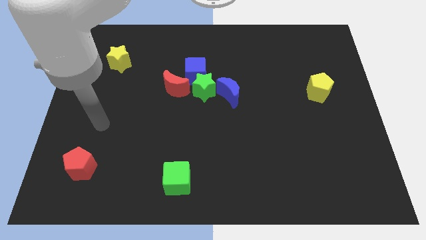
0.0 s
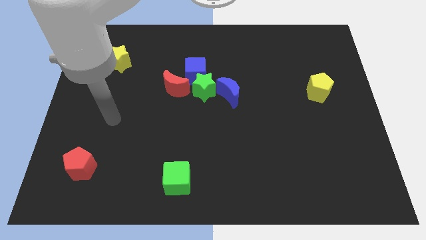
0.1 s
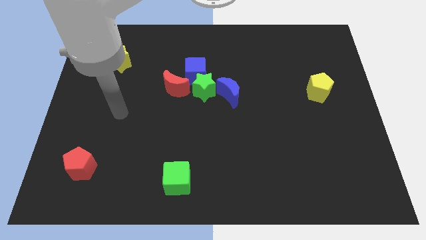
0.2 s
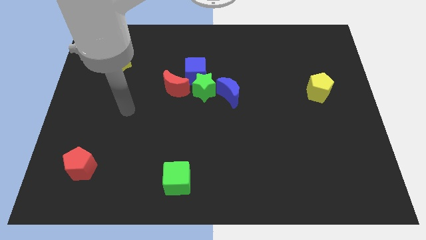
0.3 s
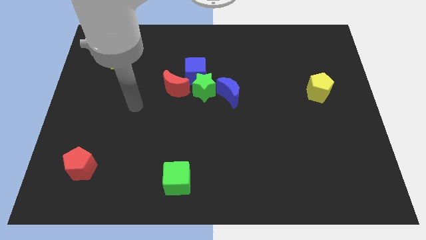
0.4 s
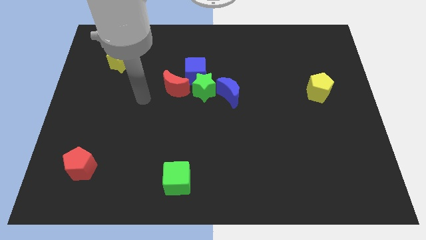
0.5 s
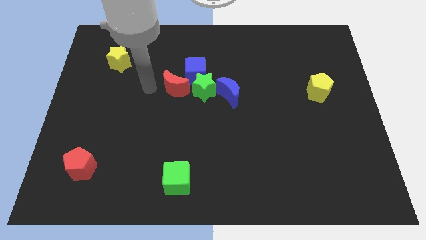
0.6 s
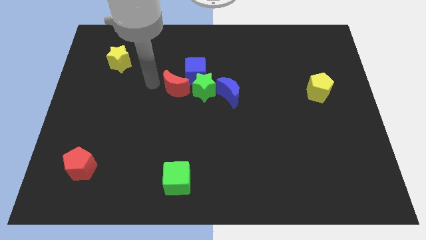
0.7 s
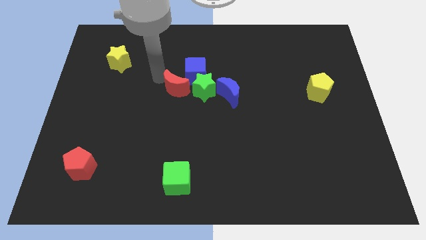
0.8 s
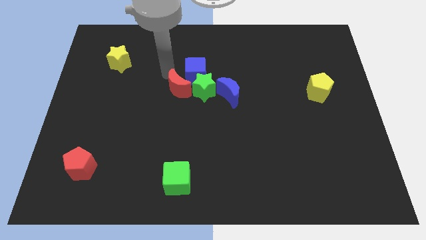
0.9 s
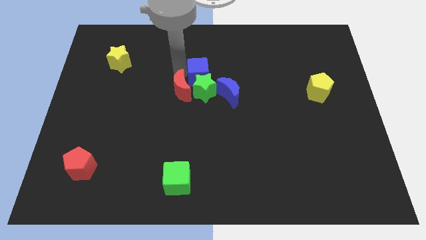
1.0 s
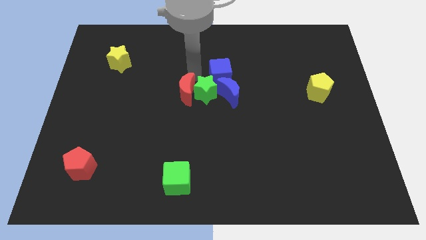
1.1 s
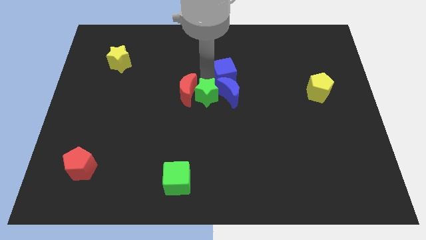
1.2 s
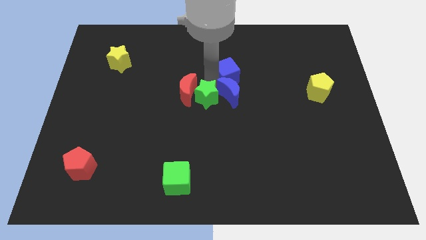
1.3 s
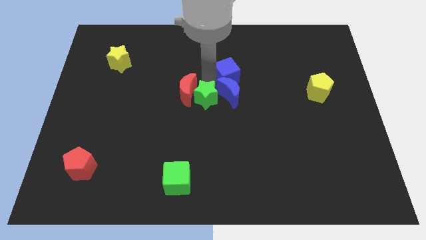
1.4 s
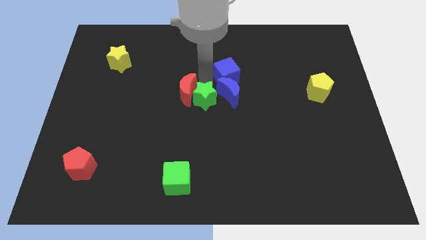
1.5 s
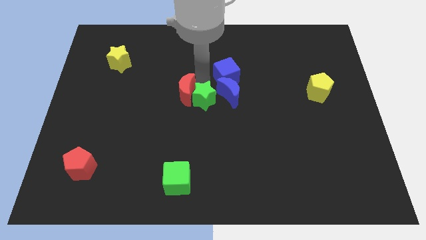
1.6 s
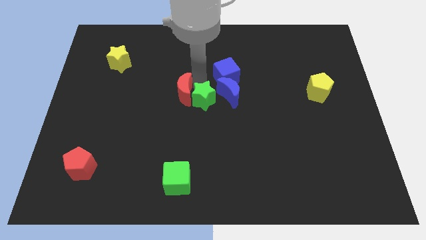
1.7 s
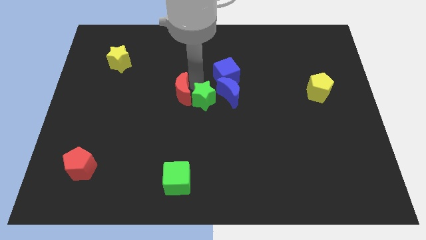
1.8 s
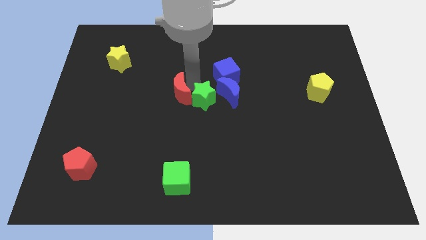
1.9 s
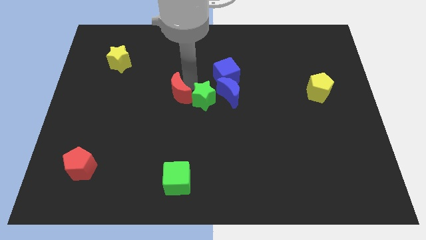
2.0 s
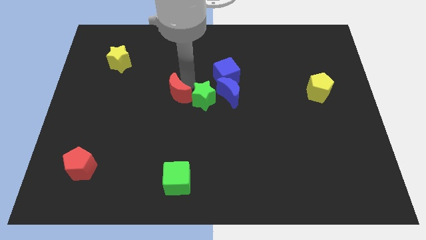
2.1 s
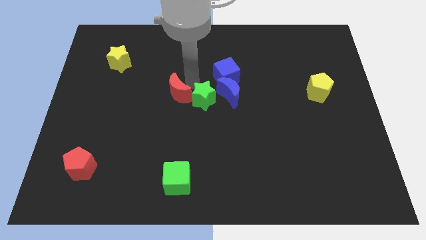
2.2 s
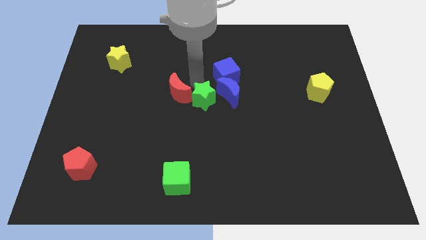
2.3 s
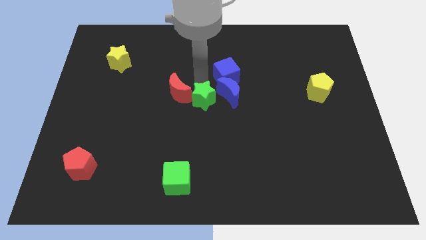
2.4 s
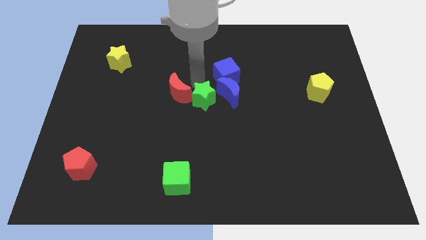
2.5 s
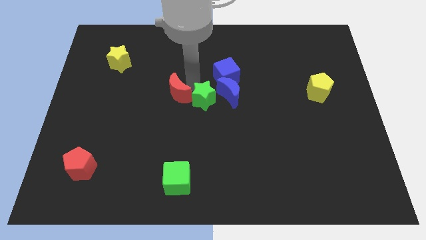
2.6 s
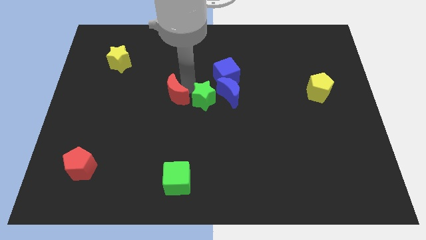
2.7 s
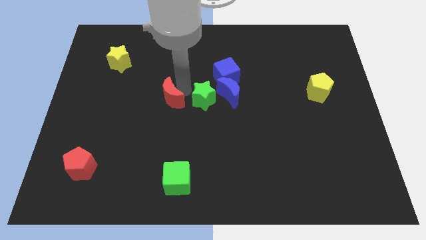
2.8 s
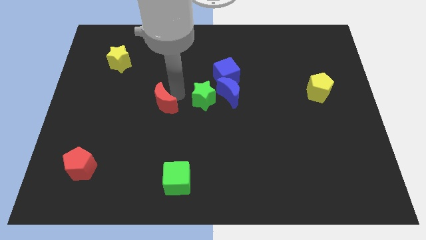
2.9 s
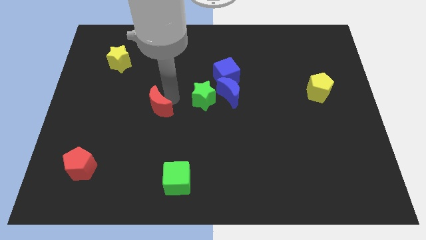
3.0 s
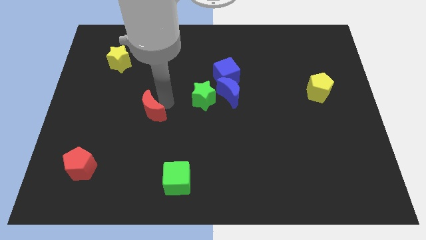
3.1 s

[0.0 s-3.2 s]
push the red moon diagonally downwards and left a bit

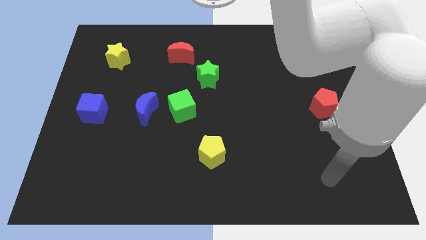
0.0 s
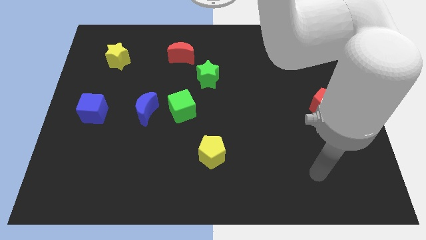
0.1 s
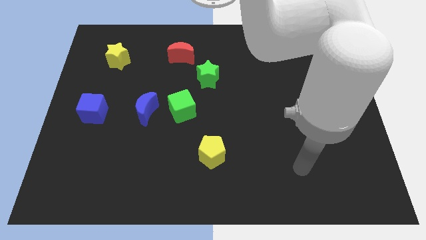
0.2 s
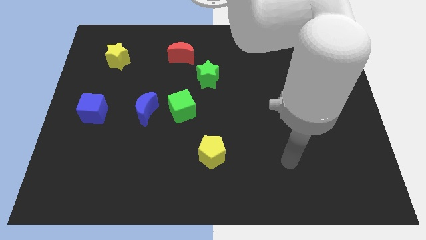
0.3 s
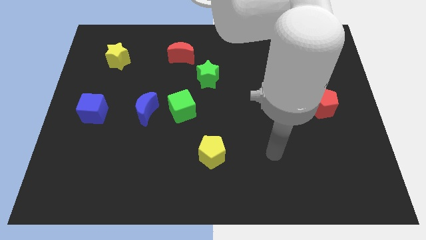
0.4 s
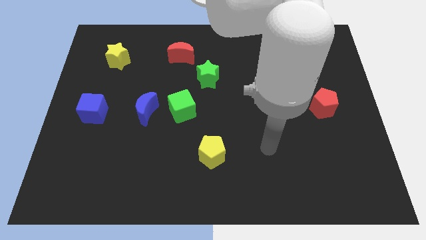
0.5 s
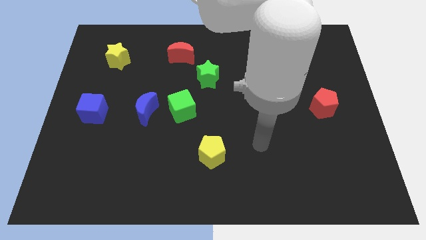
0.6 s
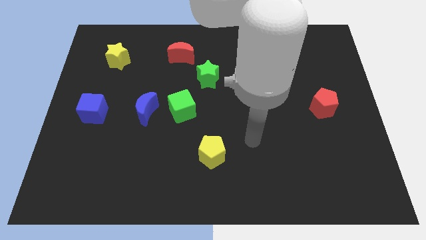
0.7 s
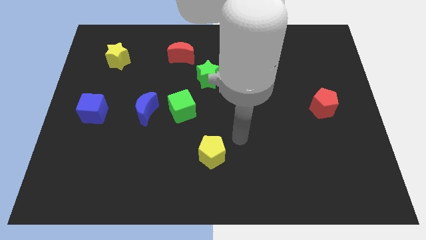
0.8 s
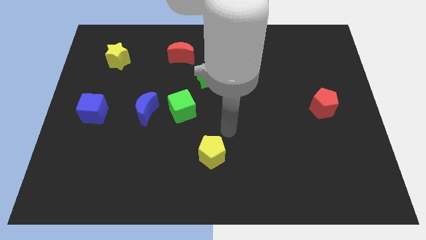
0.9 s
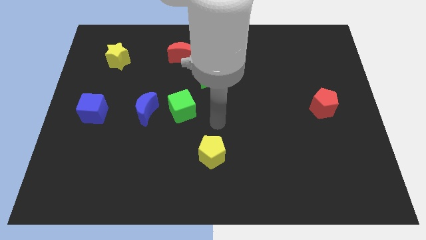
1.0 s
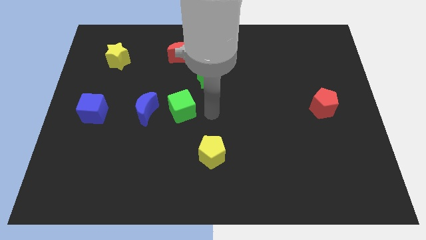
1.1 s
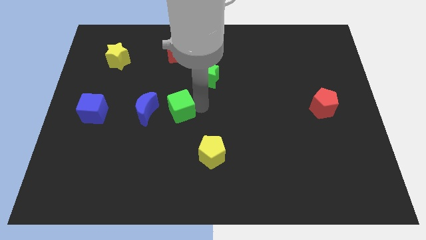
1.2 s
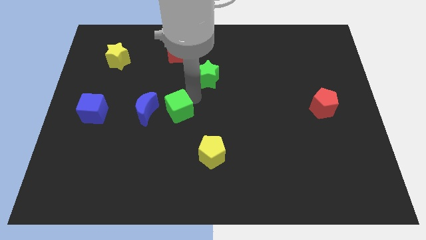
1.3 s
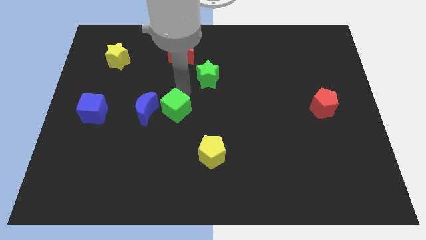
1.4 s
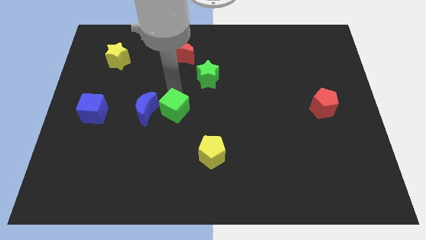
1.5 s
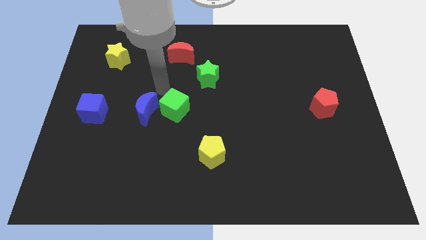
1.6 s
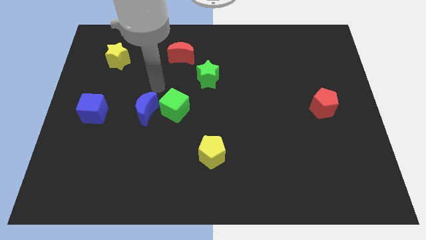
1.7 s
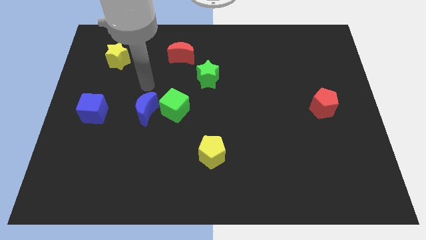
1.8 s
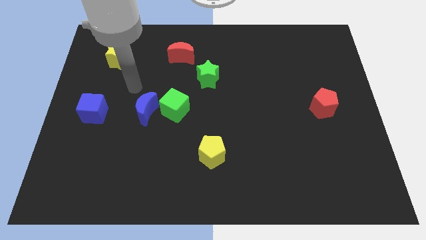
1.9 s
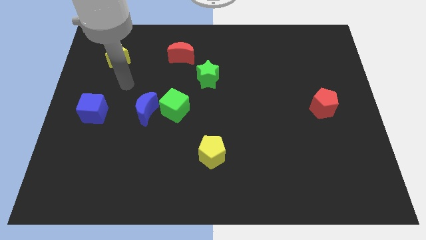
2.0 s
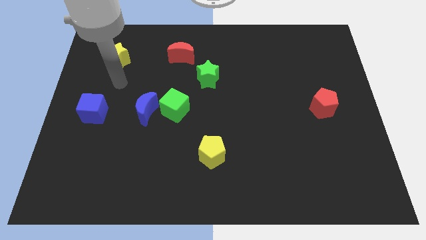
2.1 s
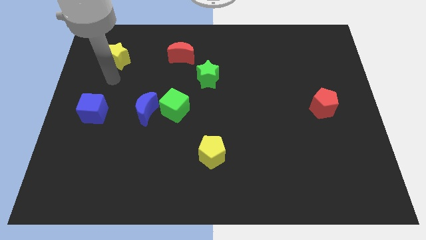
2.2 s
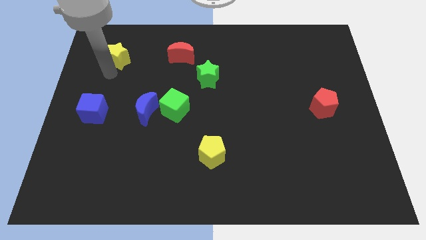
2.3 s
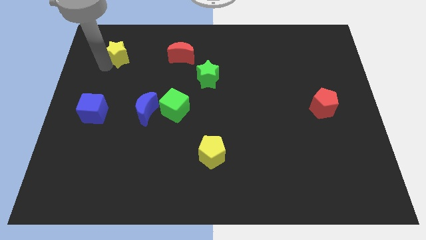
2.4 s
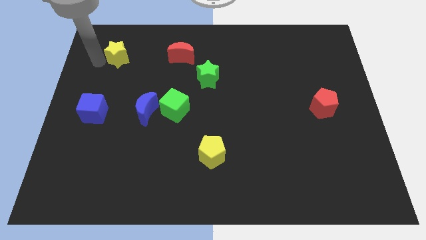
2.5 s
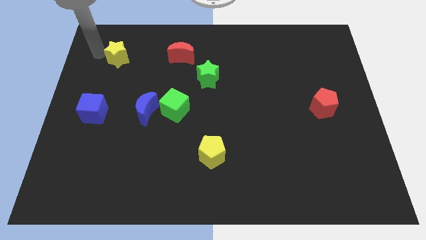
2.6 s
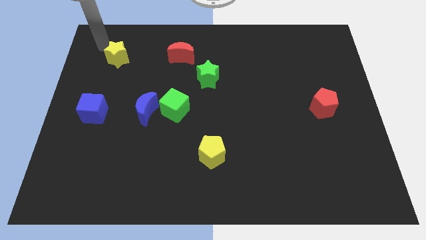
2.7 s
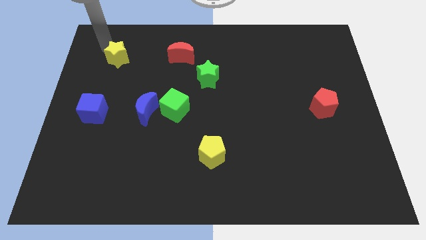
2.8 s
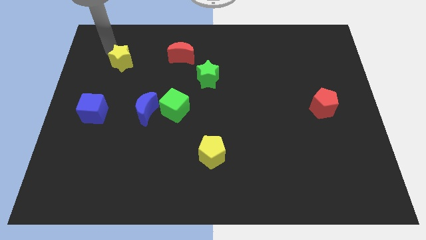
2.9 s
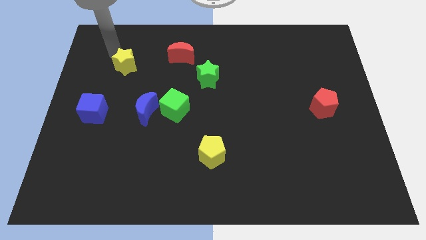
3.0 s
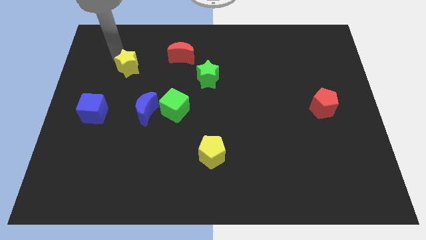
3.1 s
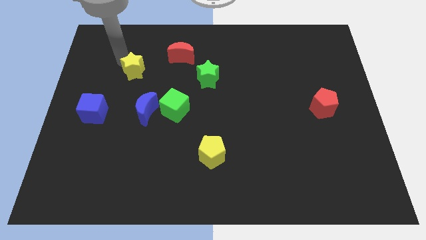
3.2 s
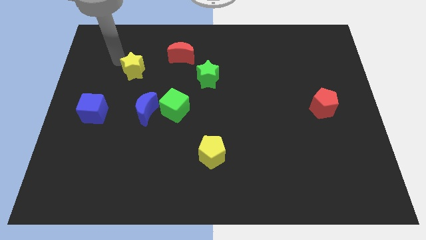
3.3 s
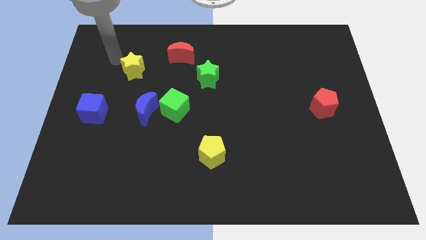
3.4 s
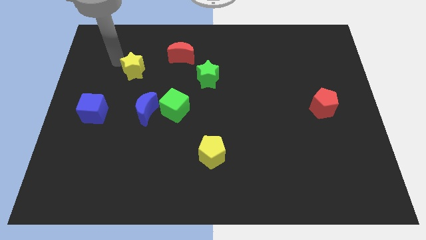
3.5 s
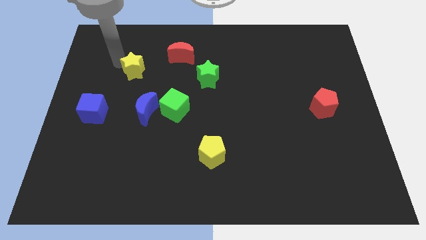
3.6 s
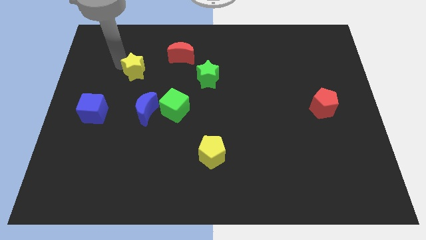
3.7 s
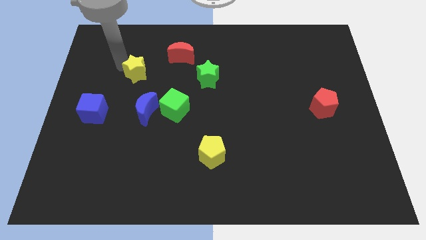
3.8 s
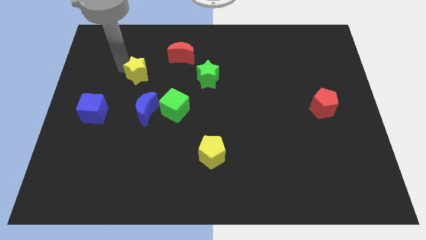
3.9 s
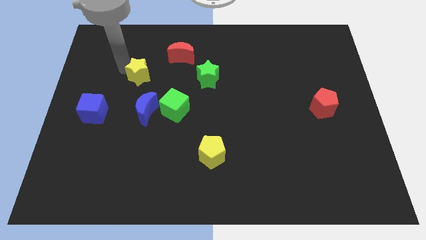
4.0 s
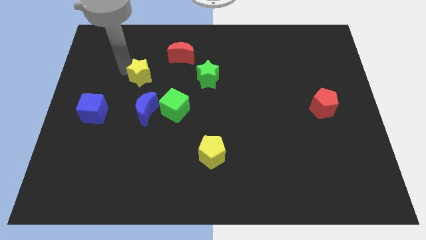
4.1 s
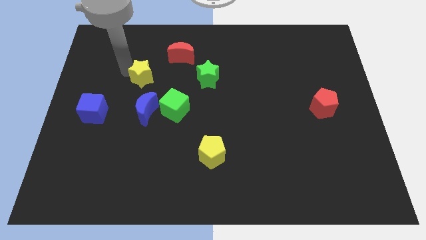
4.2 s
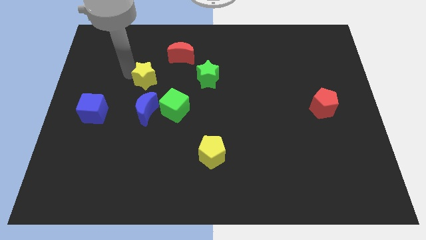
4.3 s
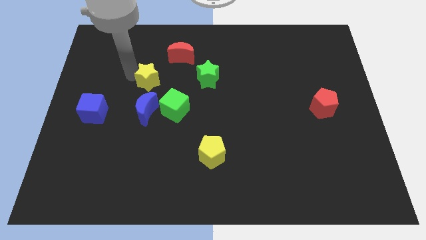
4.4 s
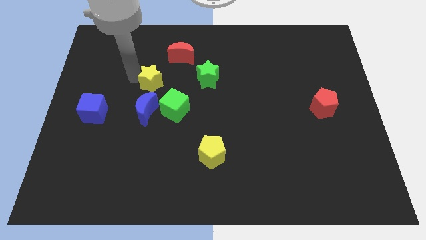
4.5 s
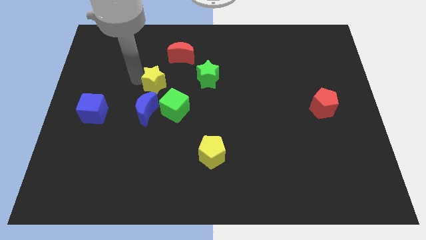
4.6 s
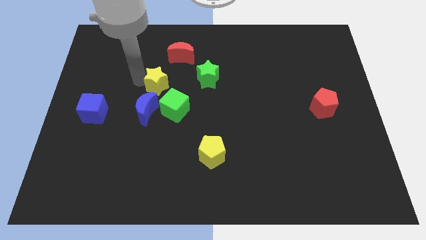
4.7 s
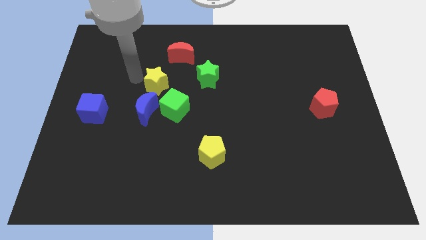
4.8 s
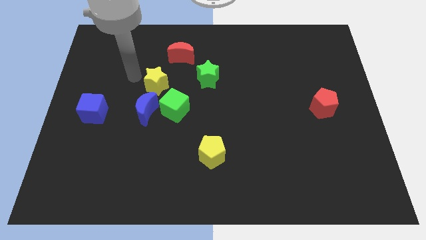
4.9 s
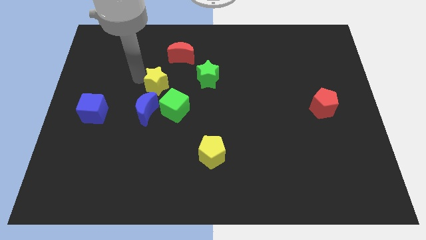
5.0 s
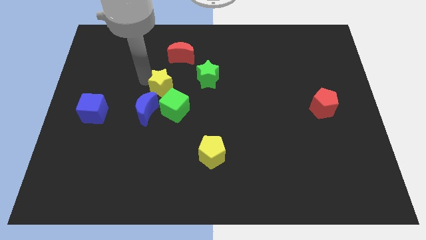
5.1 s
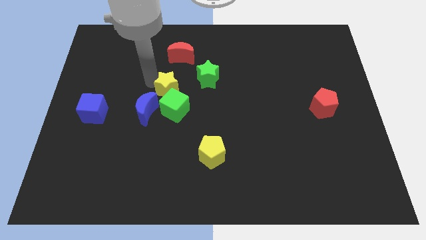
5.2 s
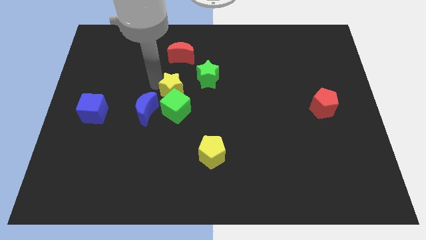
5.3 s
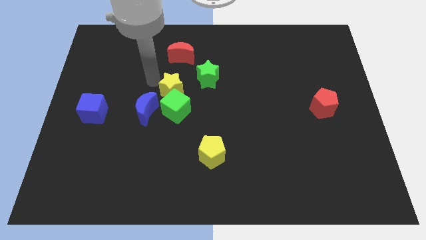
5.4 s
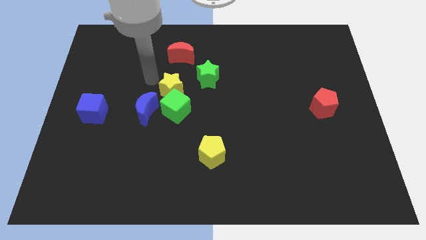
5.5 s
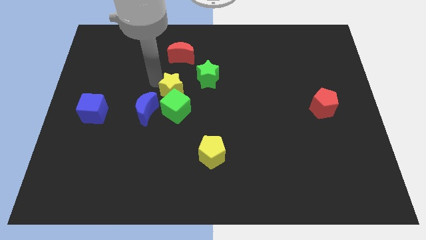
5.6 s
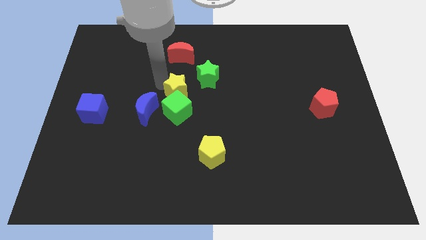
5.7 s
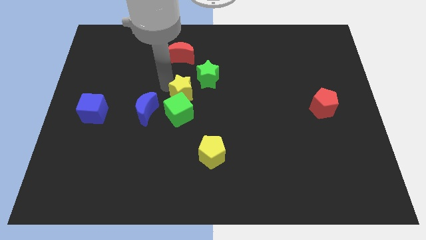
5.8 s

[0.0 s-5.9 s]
move the yellow star down and to the right diagonally
